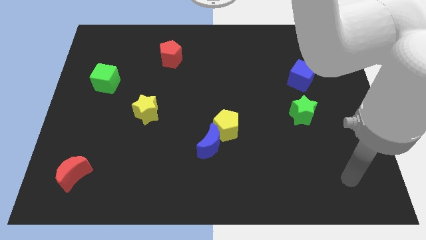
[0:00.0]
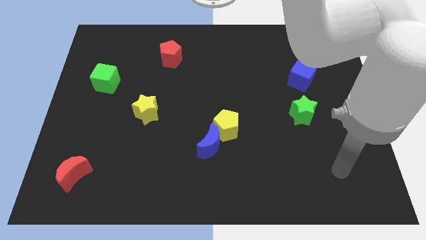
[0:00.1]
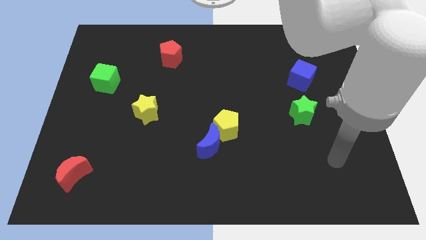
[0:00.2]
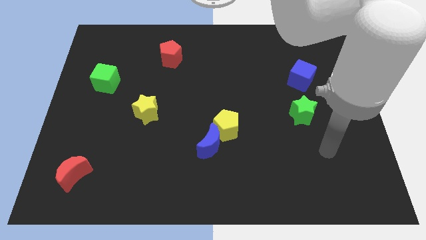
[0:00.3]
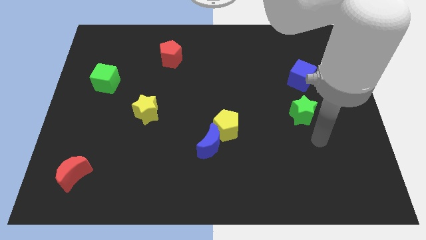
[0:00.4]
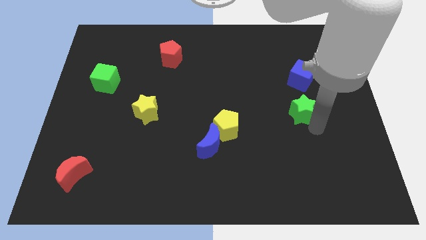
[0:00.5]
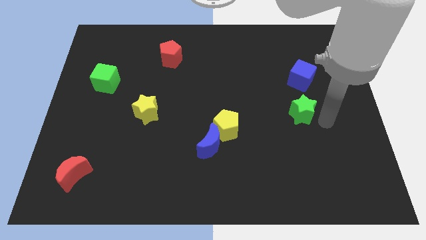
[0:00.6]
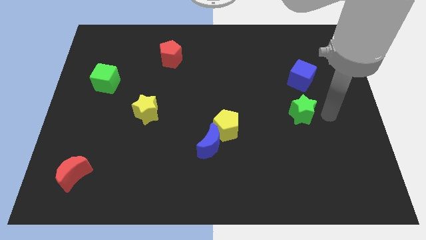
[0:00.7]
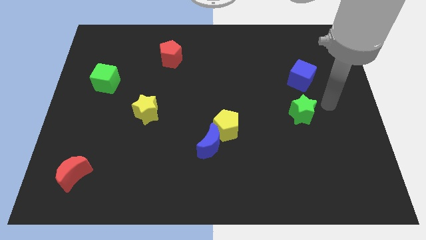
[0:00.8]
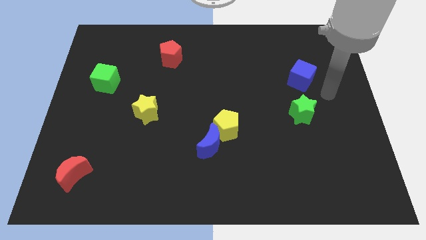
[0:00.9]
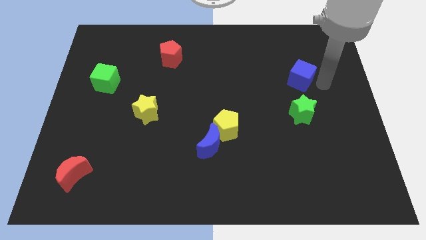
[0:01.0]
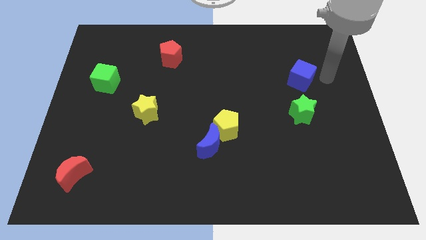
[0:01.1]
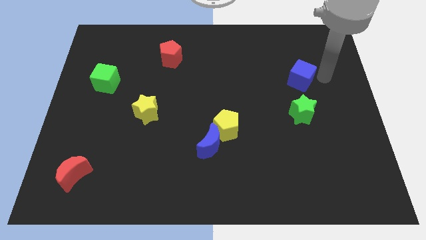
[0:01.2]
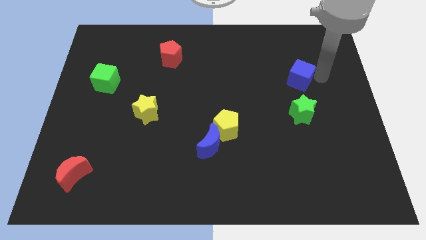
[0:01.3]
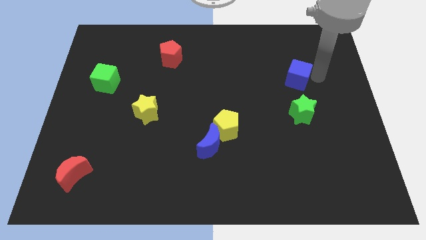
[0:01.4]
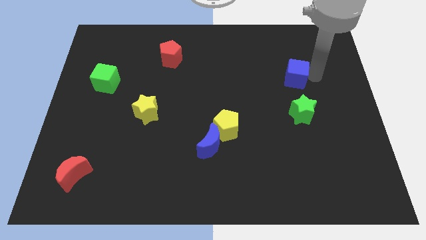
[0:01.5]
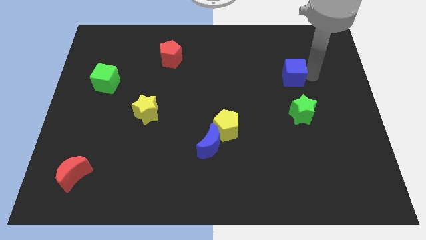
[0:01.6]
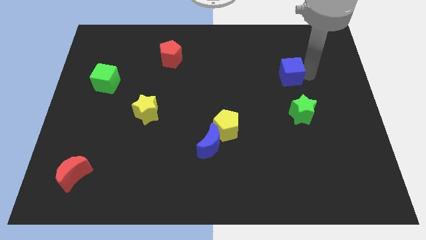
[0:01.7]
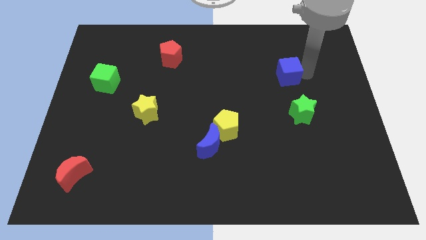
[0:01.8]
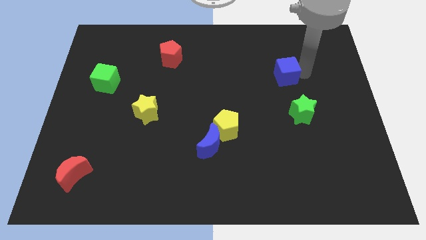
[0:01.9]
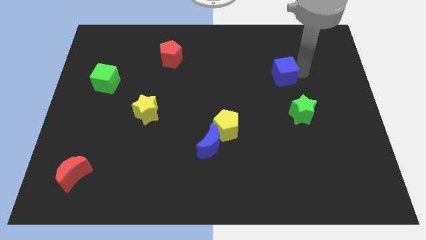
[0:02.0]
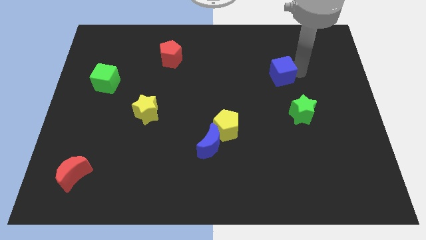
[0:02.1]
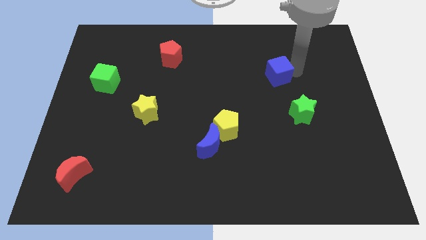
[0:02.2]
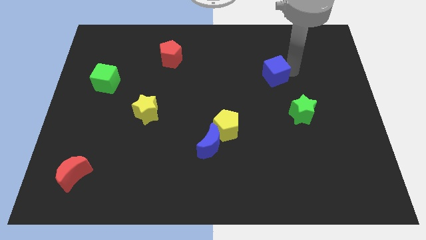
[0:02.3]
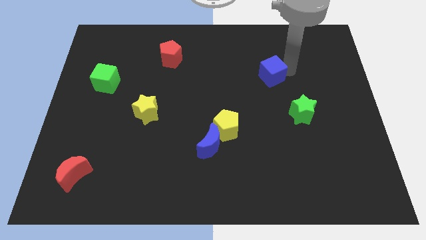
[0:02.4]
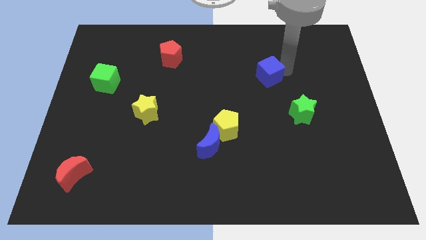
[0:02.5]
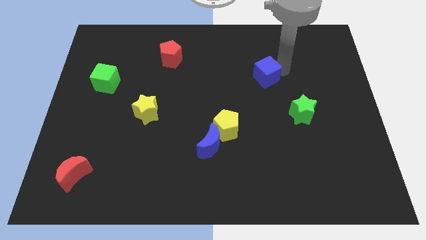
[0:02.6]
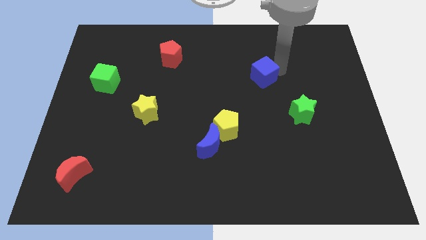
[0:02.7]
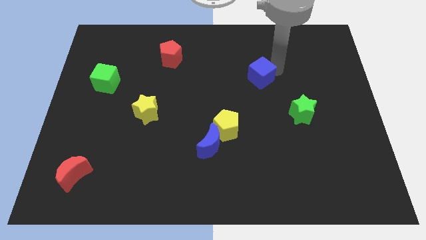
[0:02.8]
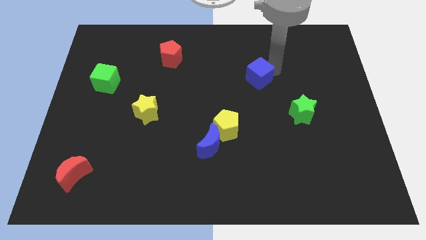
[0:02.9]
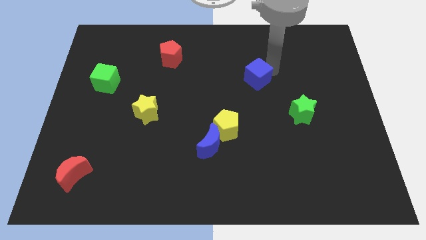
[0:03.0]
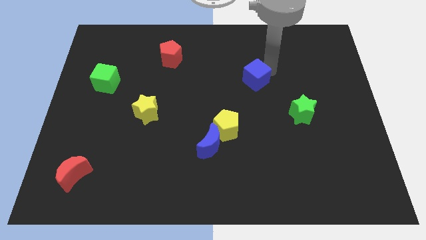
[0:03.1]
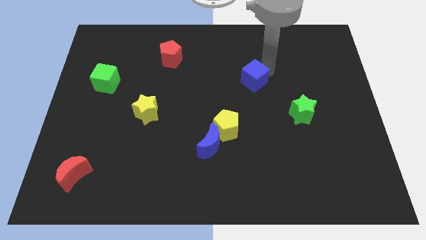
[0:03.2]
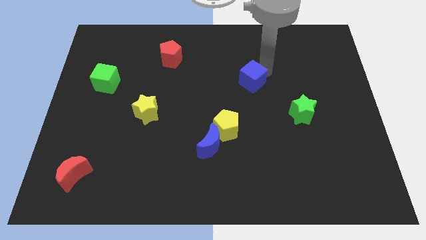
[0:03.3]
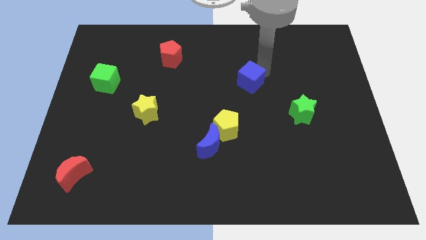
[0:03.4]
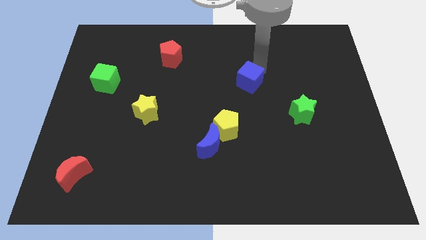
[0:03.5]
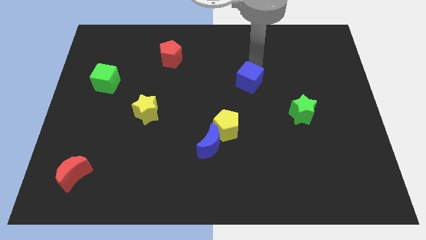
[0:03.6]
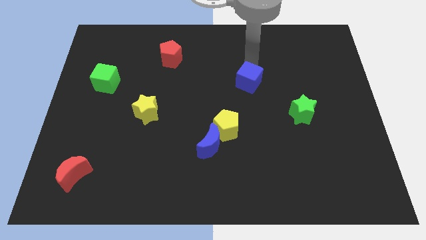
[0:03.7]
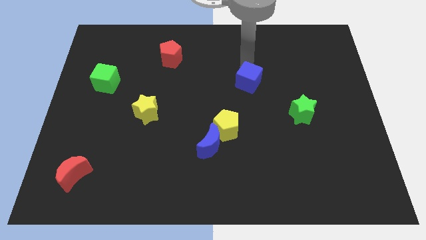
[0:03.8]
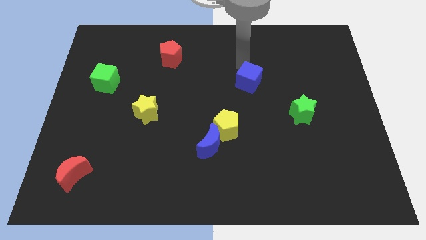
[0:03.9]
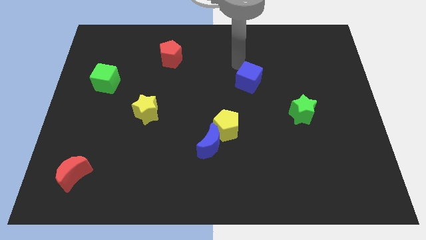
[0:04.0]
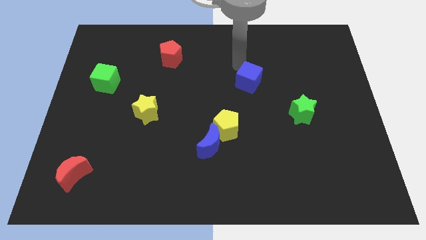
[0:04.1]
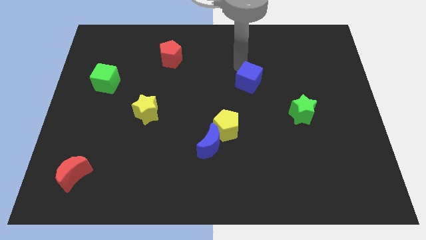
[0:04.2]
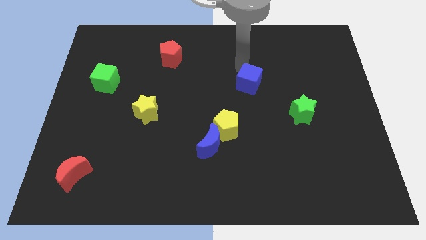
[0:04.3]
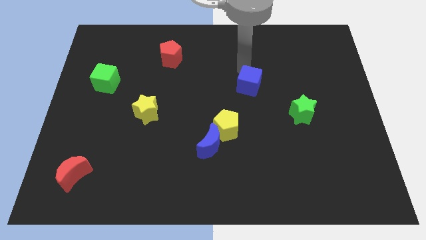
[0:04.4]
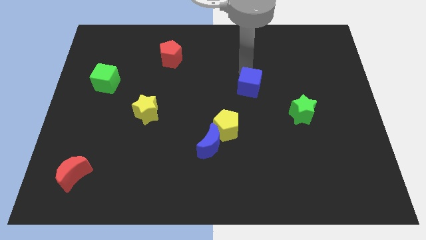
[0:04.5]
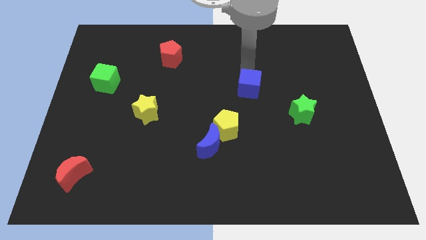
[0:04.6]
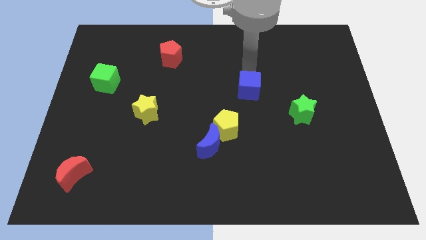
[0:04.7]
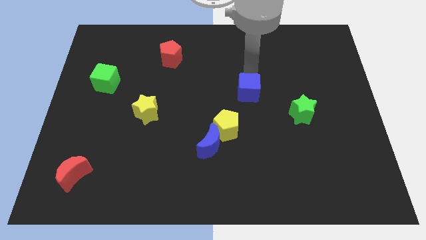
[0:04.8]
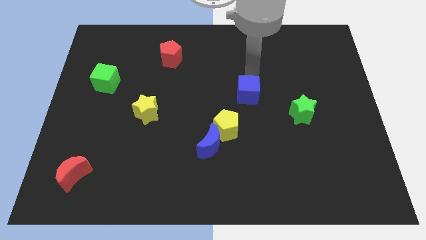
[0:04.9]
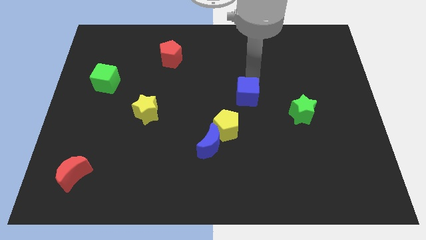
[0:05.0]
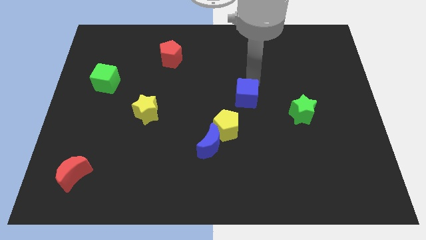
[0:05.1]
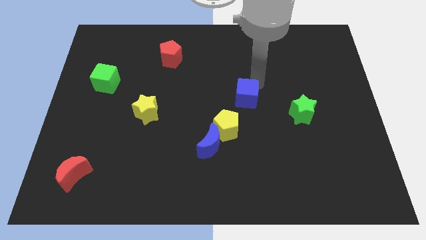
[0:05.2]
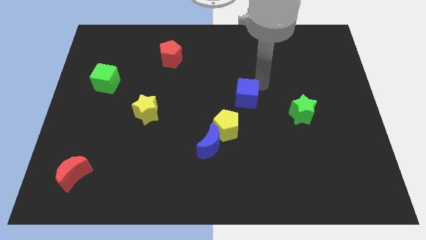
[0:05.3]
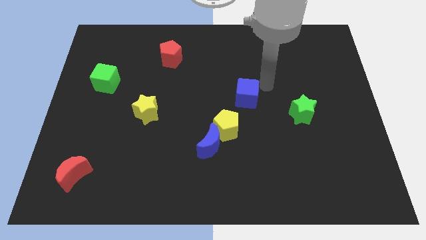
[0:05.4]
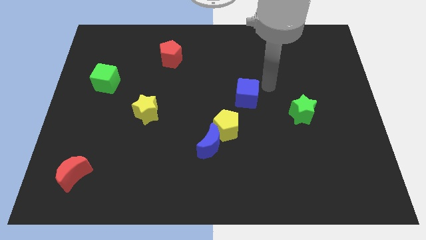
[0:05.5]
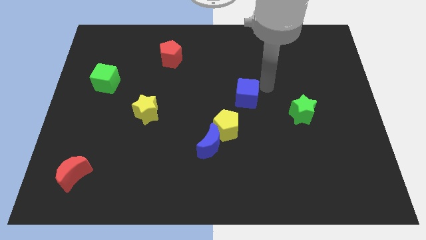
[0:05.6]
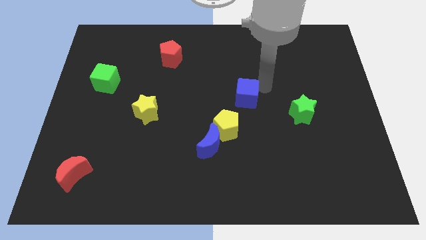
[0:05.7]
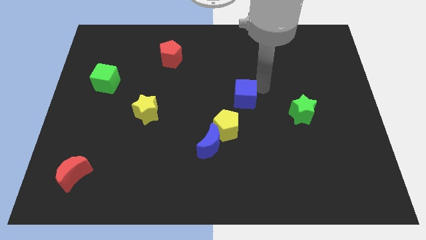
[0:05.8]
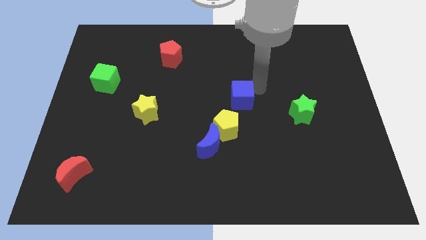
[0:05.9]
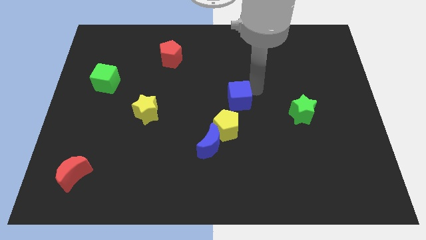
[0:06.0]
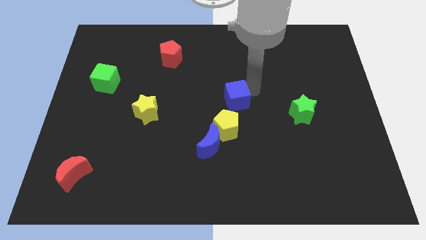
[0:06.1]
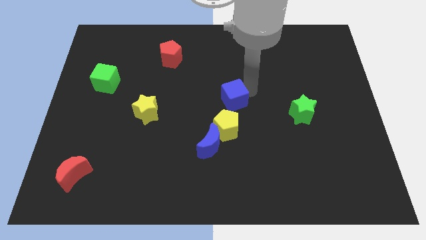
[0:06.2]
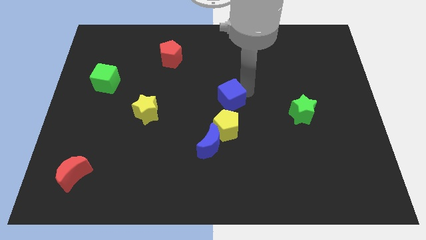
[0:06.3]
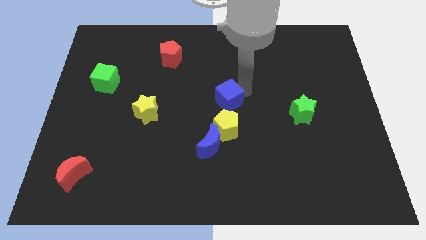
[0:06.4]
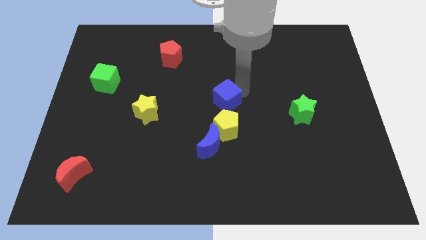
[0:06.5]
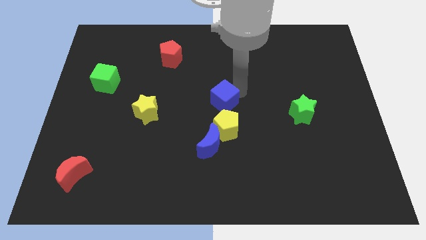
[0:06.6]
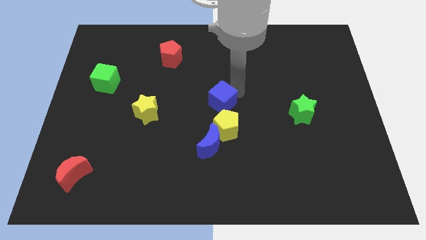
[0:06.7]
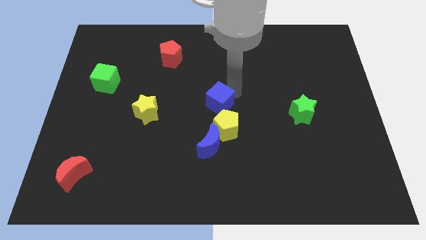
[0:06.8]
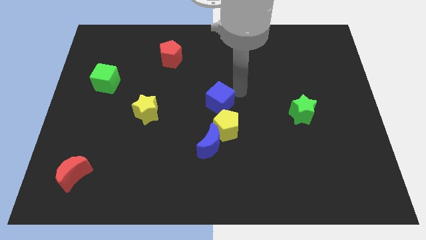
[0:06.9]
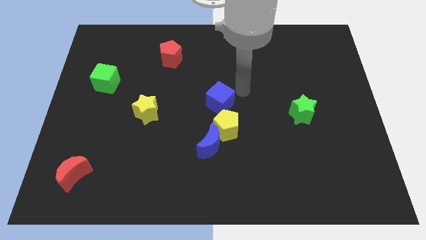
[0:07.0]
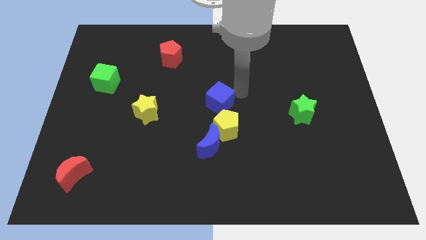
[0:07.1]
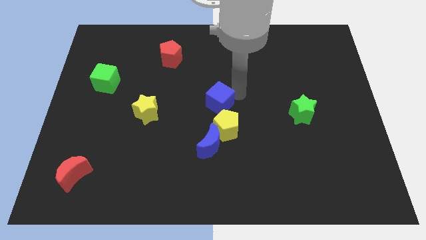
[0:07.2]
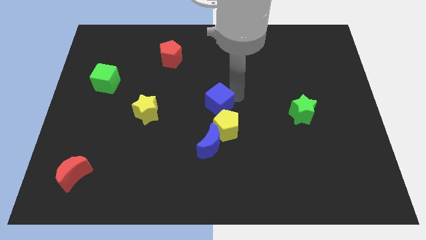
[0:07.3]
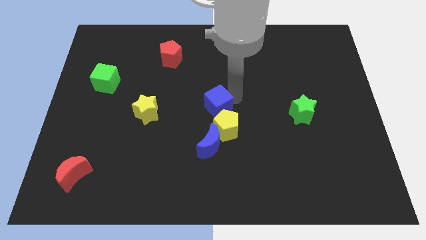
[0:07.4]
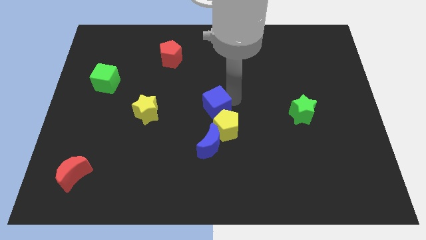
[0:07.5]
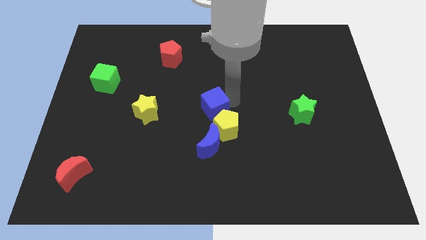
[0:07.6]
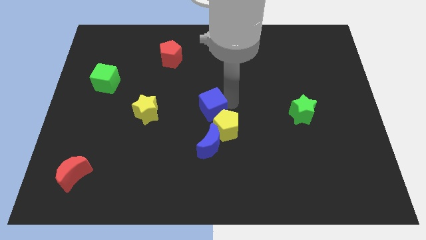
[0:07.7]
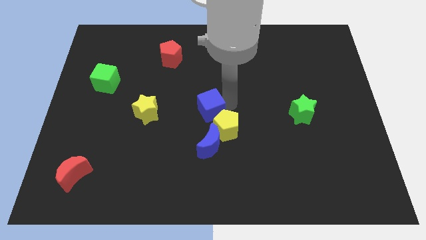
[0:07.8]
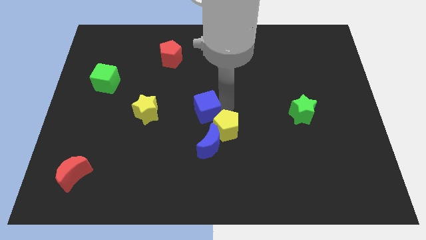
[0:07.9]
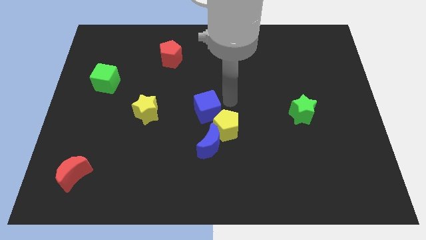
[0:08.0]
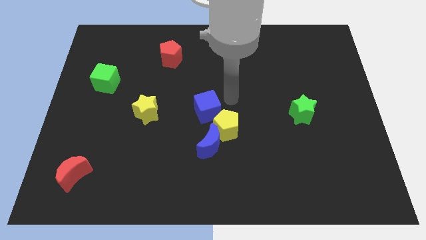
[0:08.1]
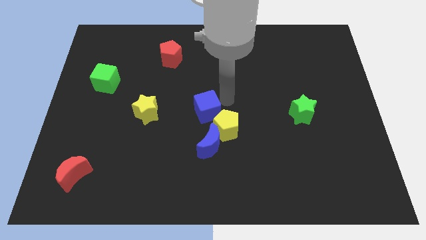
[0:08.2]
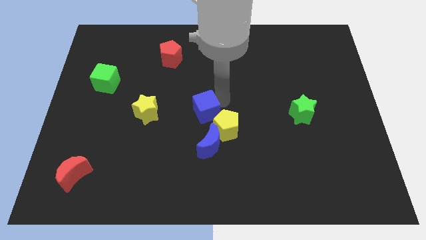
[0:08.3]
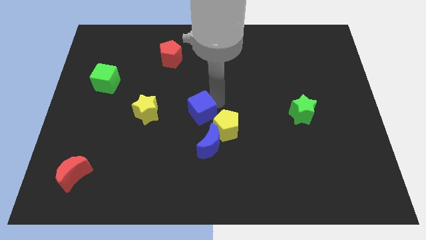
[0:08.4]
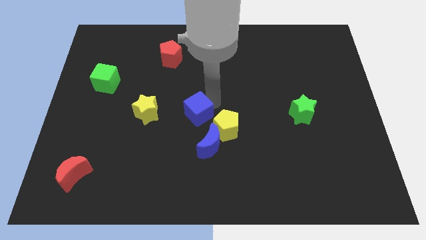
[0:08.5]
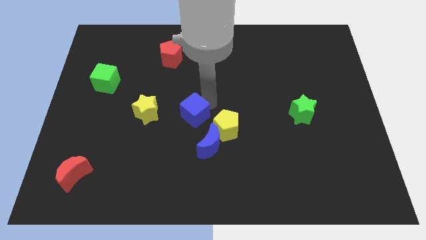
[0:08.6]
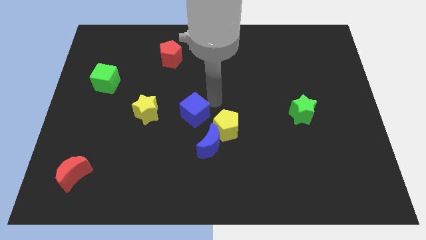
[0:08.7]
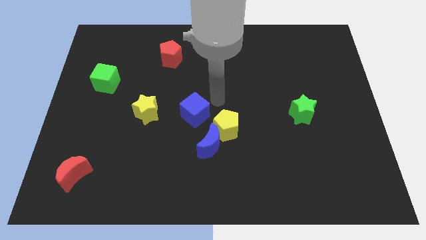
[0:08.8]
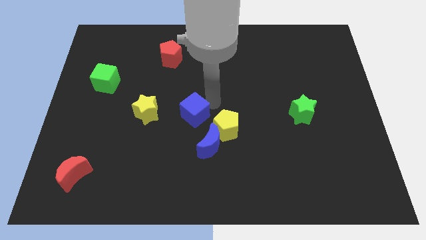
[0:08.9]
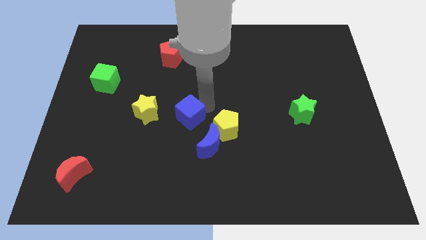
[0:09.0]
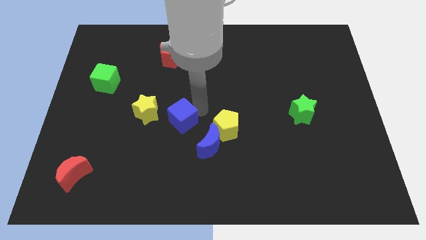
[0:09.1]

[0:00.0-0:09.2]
put the blue cube to the bottom right side of the yellow star
